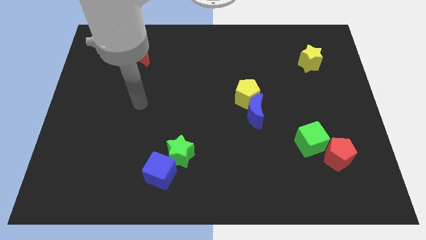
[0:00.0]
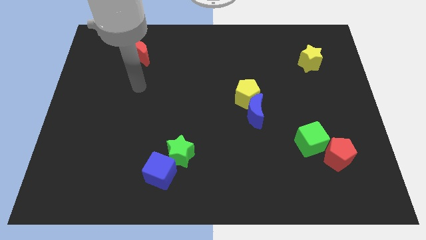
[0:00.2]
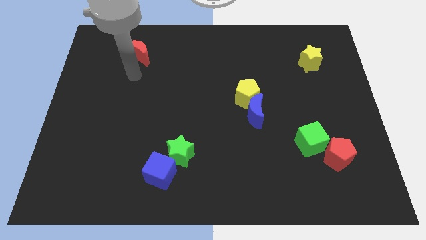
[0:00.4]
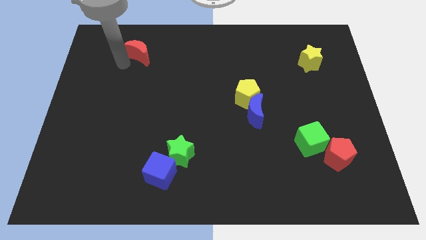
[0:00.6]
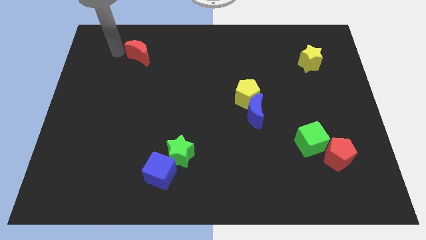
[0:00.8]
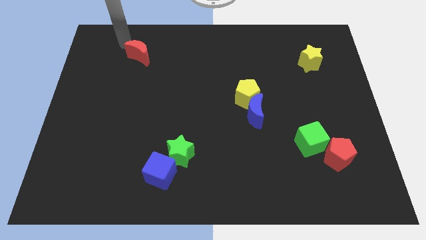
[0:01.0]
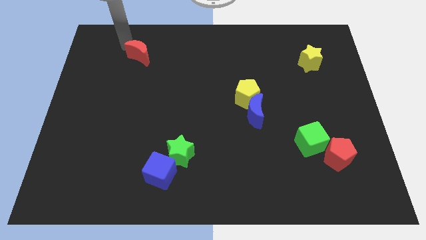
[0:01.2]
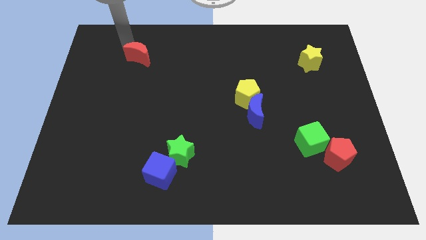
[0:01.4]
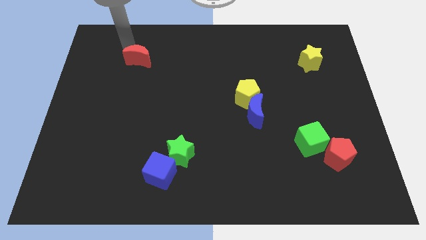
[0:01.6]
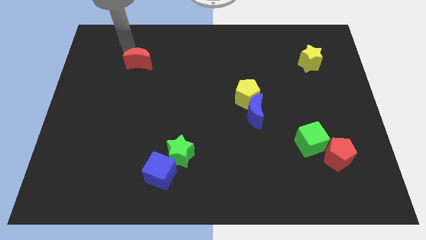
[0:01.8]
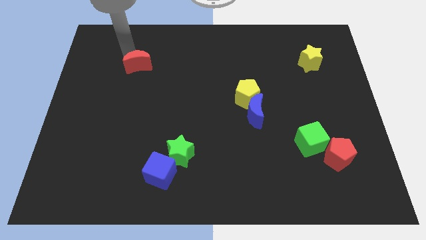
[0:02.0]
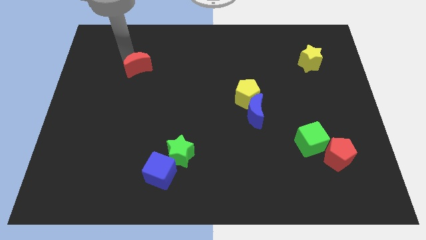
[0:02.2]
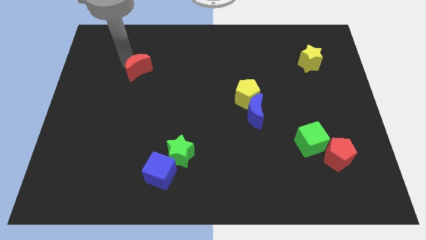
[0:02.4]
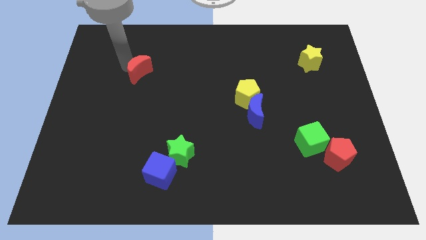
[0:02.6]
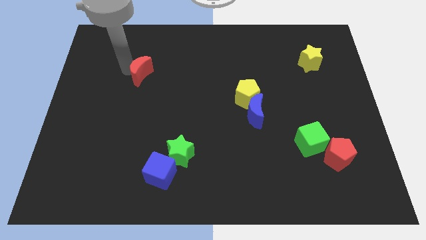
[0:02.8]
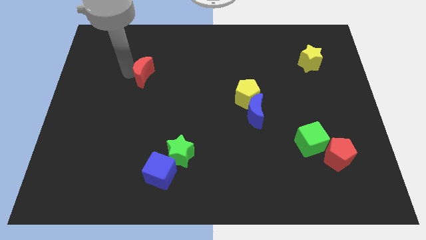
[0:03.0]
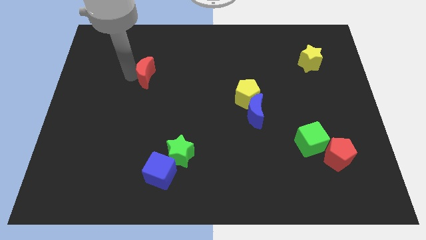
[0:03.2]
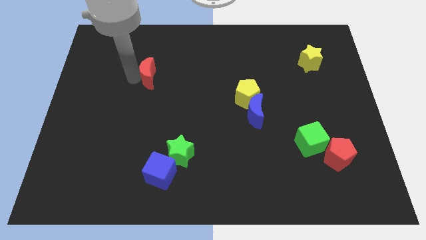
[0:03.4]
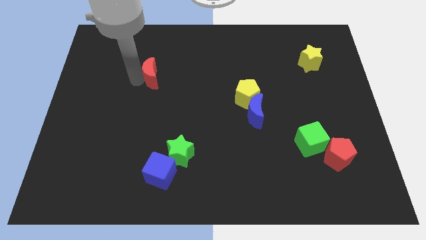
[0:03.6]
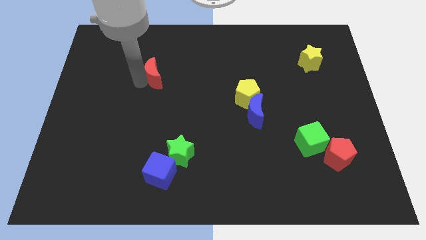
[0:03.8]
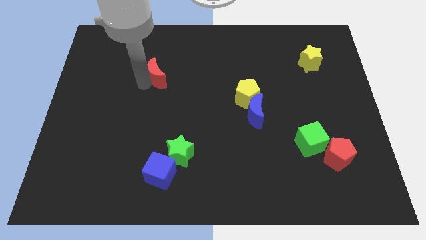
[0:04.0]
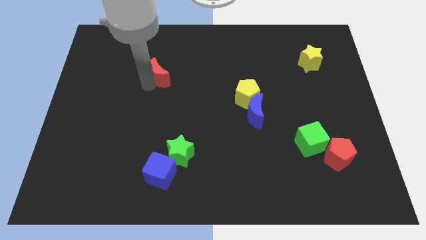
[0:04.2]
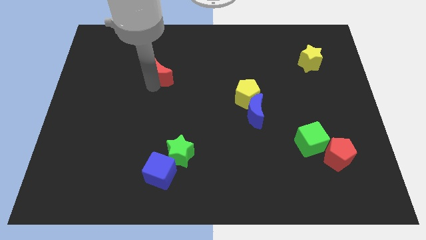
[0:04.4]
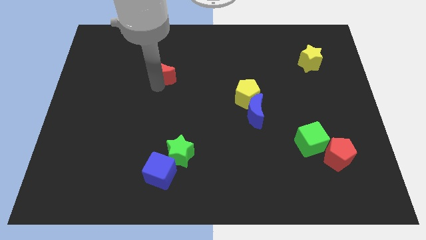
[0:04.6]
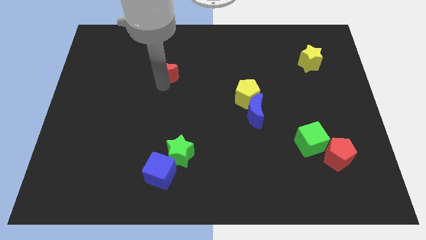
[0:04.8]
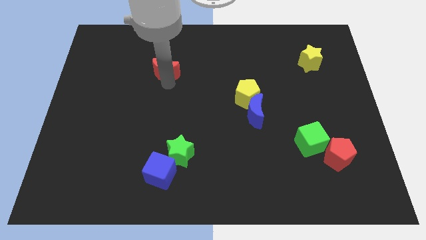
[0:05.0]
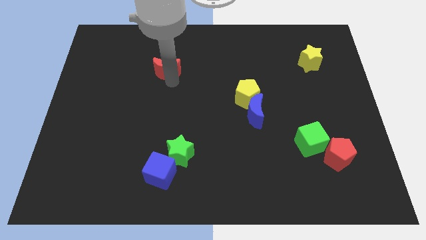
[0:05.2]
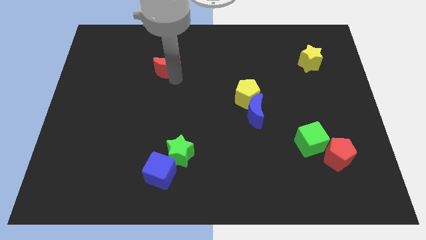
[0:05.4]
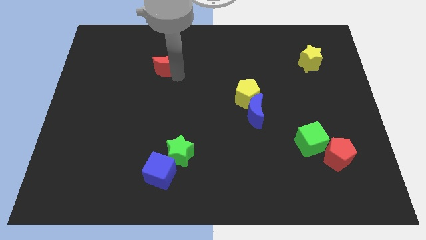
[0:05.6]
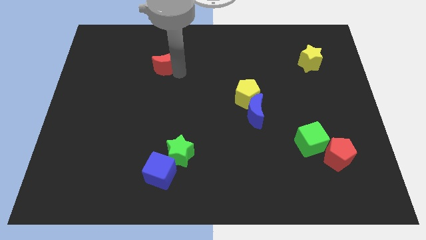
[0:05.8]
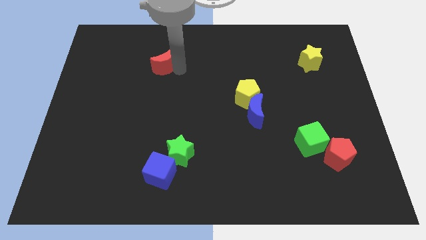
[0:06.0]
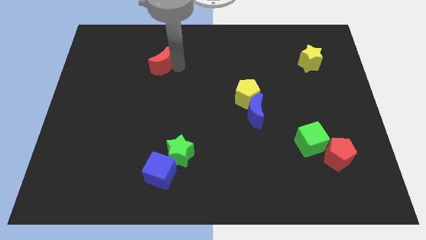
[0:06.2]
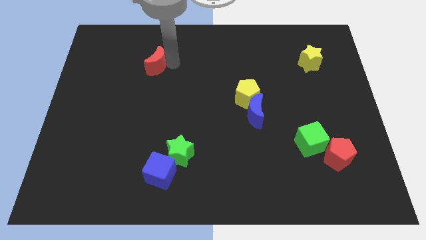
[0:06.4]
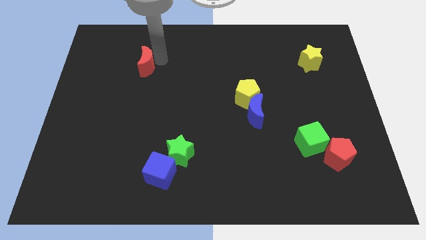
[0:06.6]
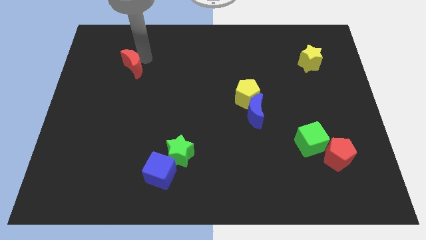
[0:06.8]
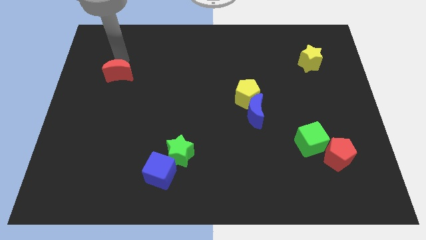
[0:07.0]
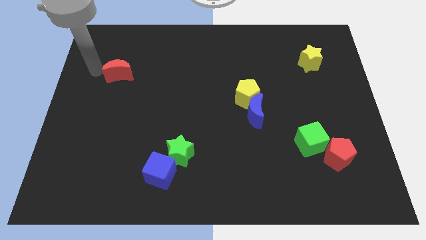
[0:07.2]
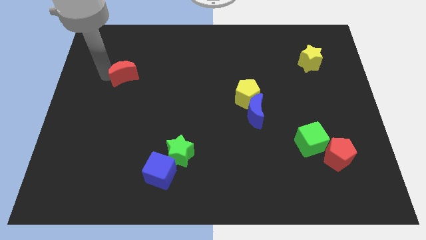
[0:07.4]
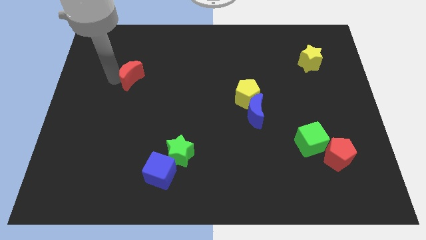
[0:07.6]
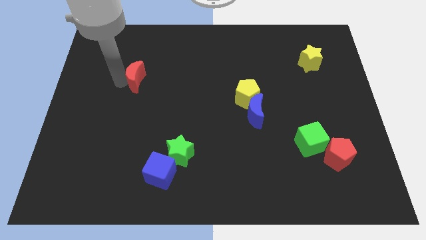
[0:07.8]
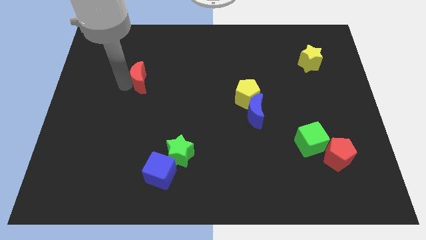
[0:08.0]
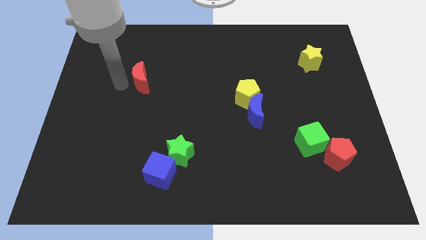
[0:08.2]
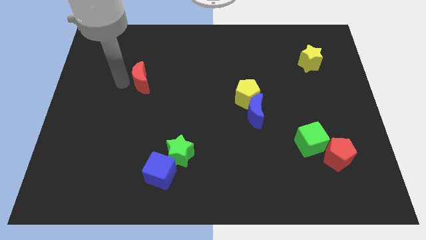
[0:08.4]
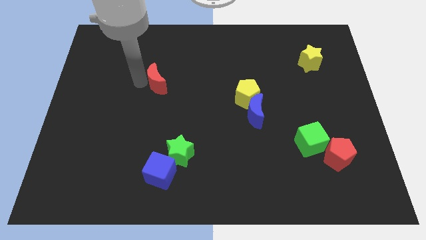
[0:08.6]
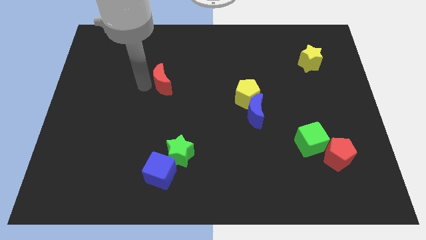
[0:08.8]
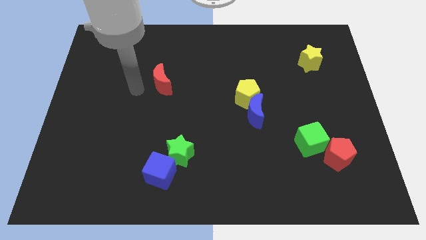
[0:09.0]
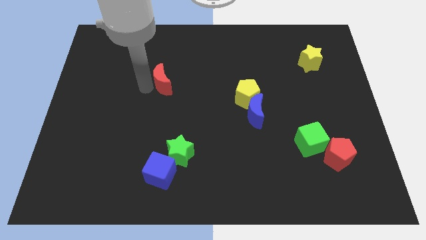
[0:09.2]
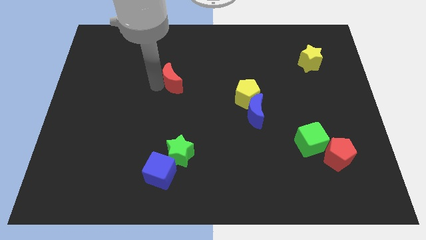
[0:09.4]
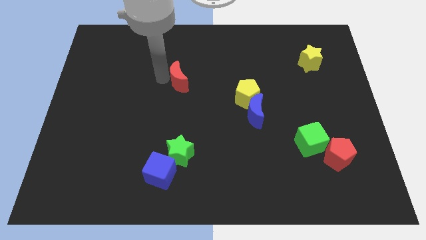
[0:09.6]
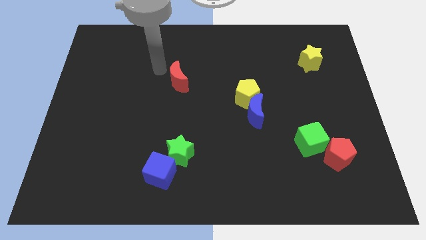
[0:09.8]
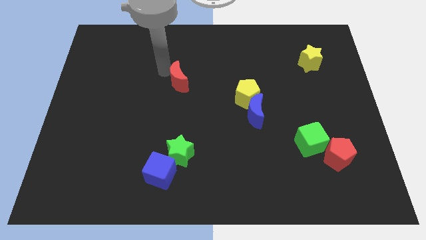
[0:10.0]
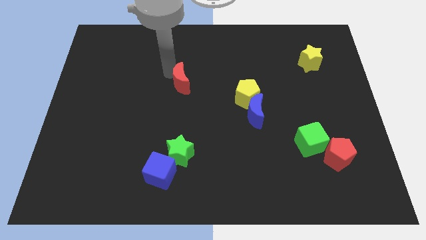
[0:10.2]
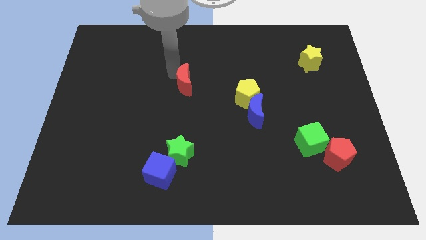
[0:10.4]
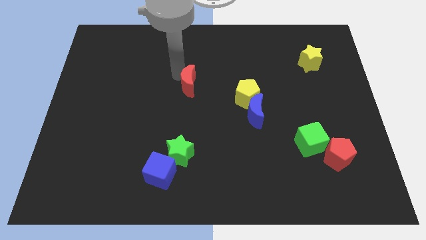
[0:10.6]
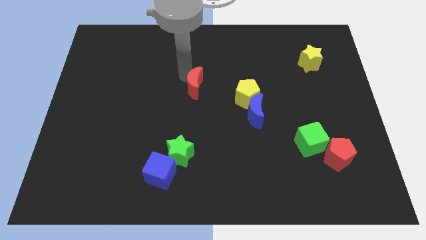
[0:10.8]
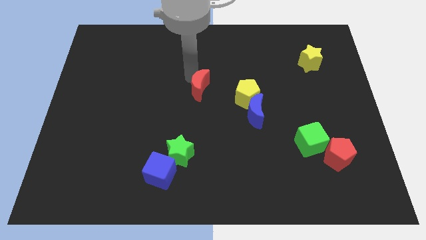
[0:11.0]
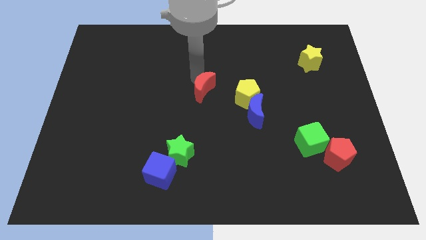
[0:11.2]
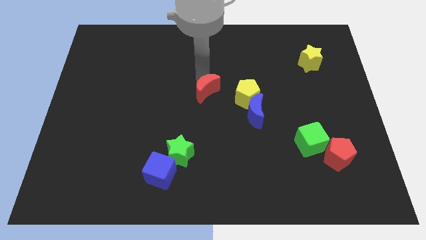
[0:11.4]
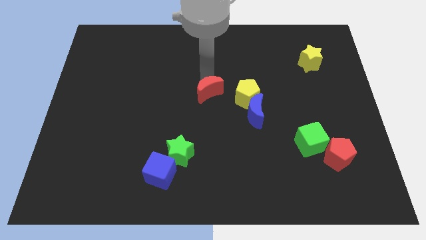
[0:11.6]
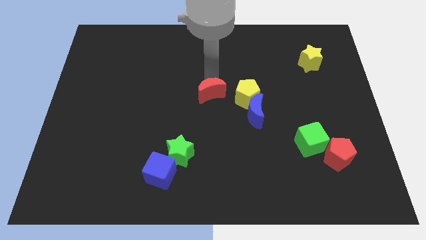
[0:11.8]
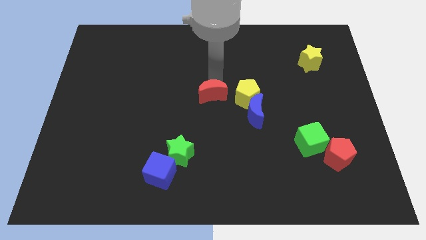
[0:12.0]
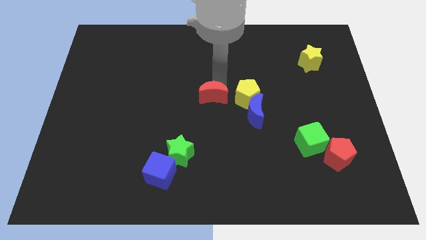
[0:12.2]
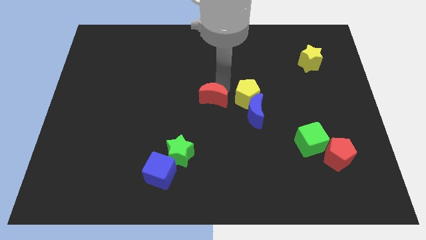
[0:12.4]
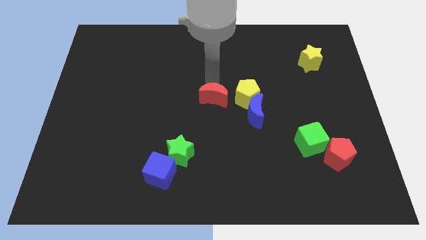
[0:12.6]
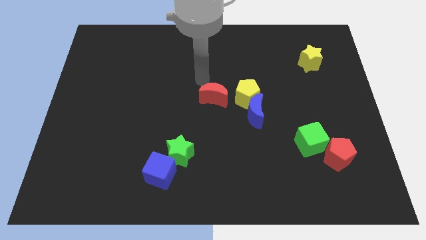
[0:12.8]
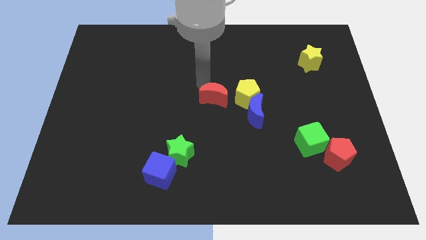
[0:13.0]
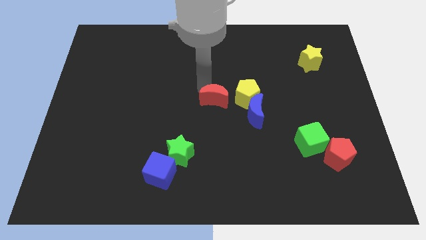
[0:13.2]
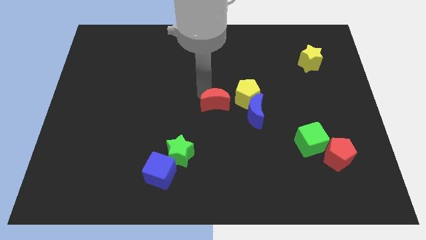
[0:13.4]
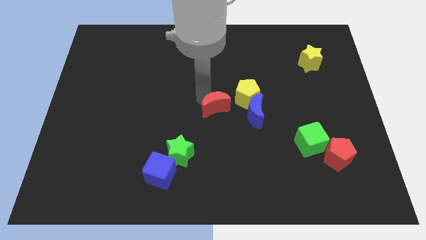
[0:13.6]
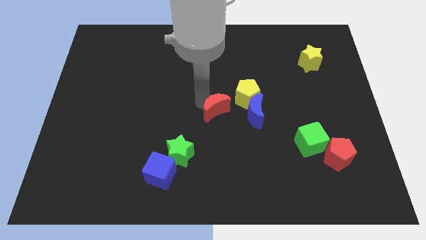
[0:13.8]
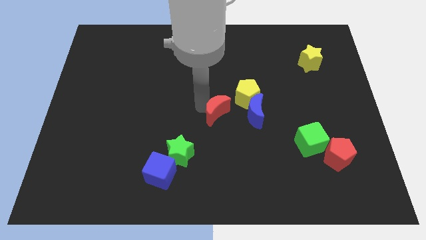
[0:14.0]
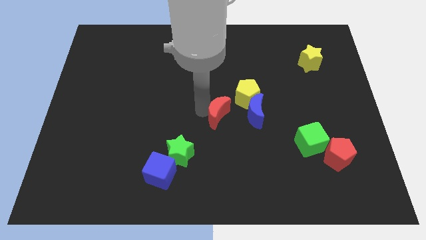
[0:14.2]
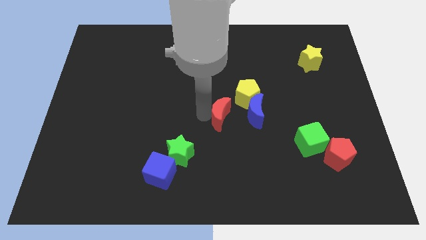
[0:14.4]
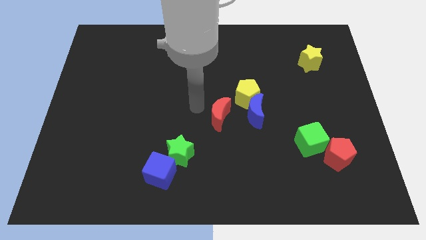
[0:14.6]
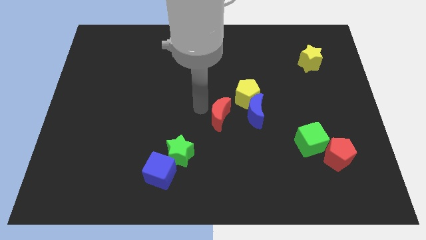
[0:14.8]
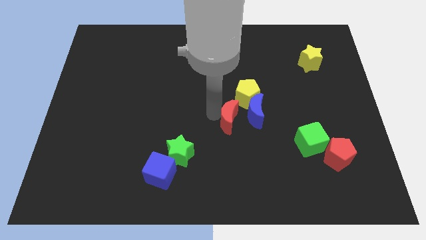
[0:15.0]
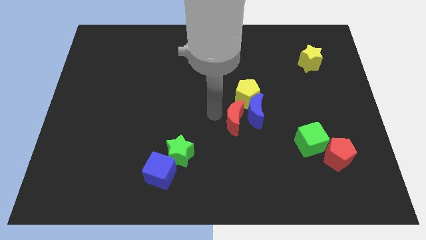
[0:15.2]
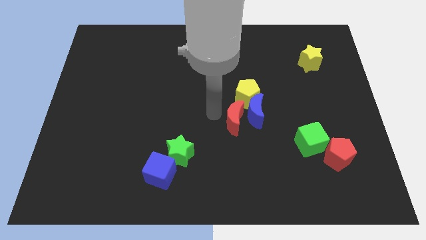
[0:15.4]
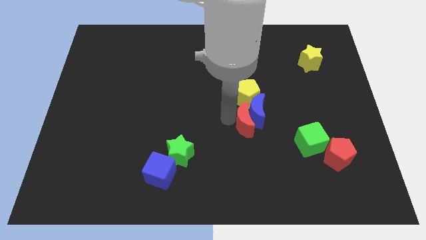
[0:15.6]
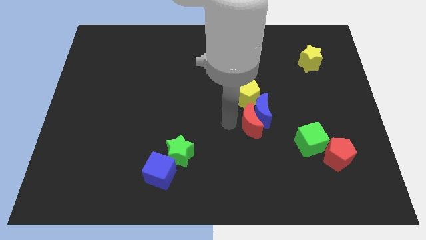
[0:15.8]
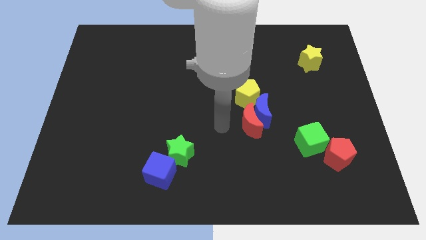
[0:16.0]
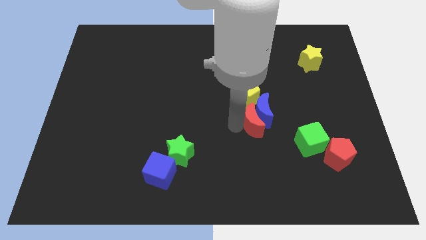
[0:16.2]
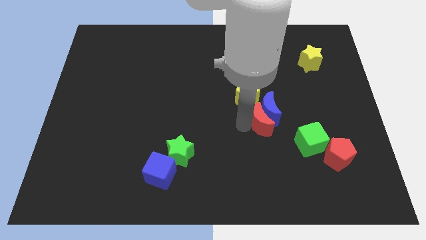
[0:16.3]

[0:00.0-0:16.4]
slide the red moon diagonally up and to the left of the green cube
